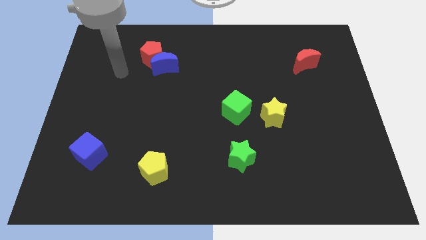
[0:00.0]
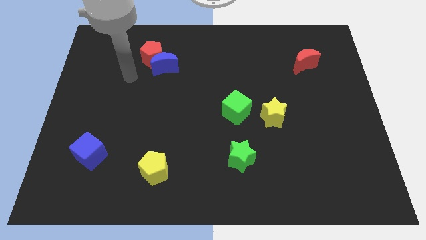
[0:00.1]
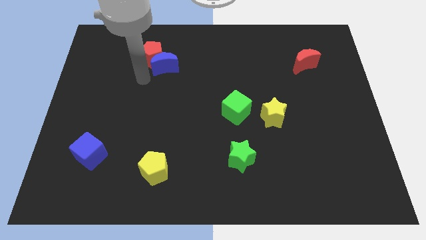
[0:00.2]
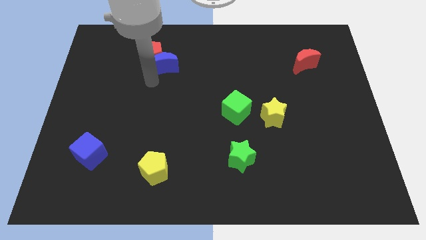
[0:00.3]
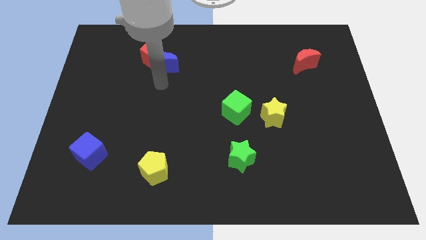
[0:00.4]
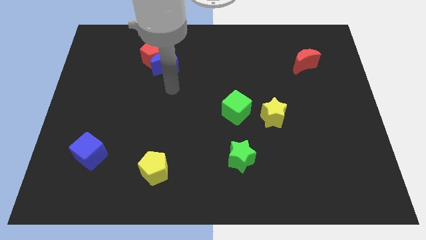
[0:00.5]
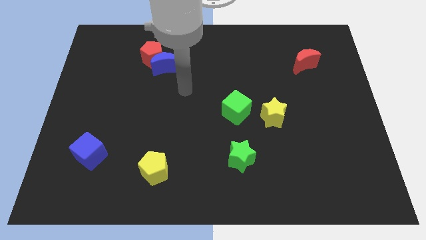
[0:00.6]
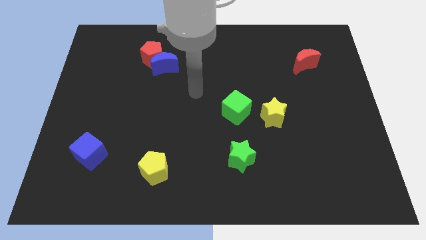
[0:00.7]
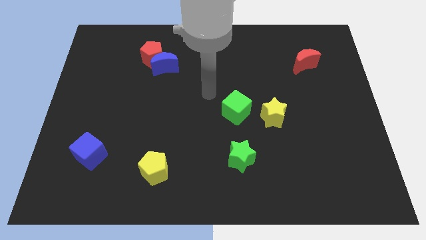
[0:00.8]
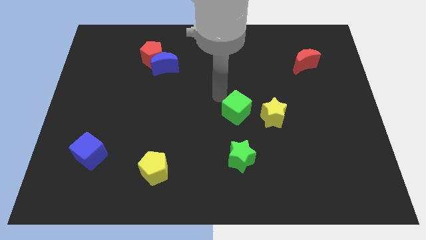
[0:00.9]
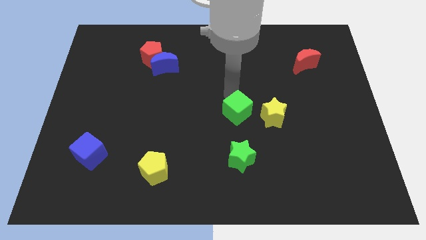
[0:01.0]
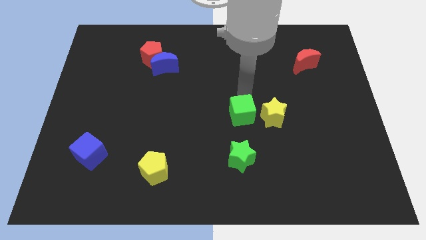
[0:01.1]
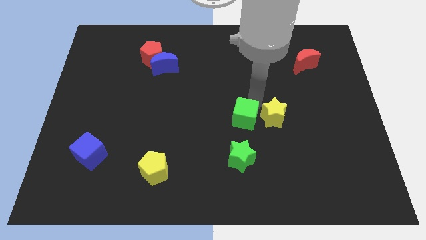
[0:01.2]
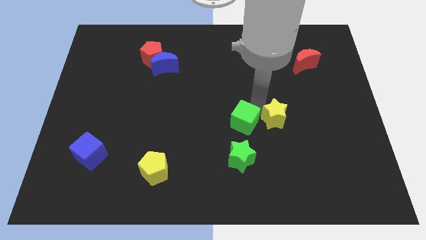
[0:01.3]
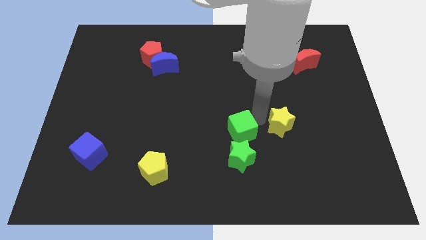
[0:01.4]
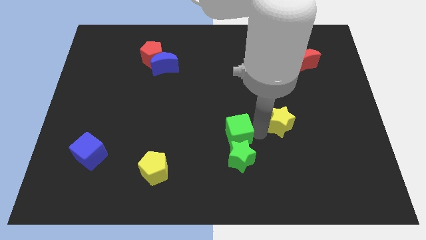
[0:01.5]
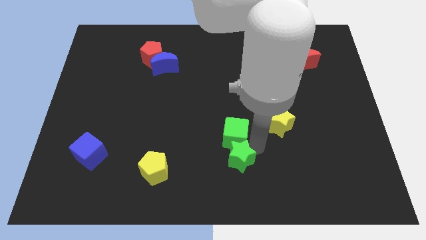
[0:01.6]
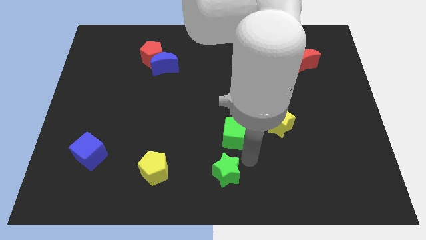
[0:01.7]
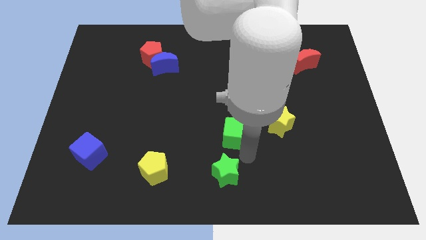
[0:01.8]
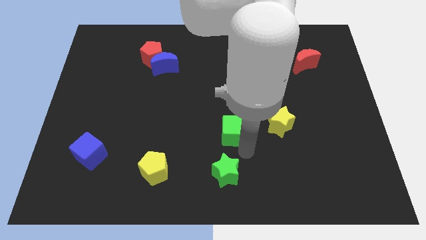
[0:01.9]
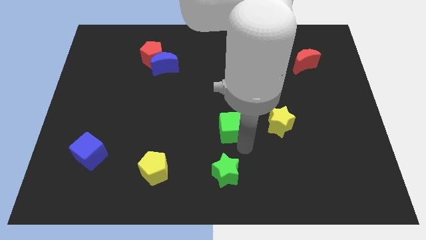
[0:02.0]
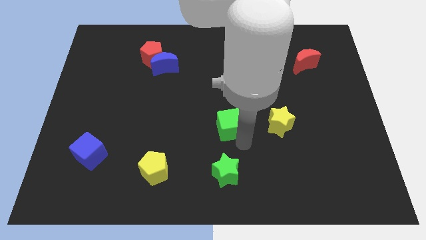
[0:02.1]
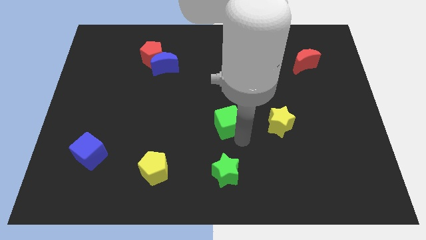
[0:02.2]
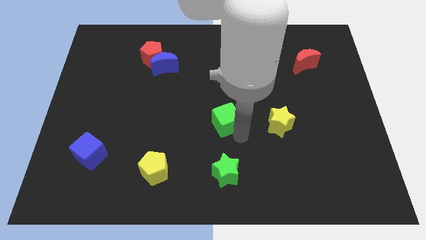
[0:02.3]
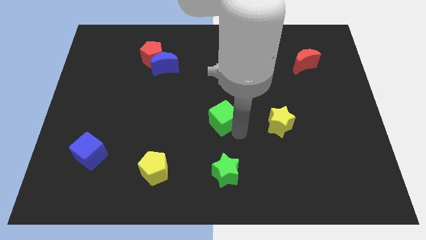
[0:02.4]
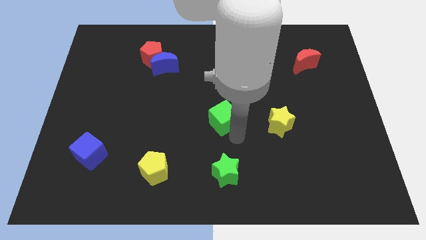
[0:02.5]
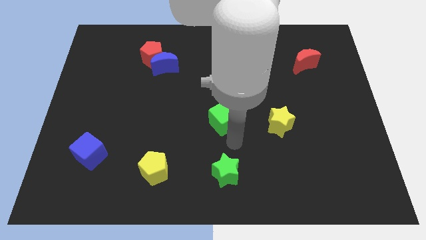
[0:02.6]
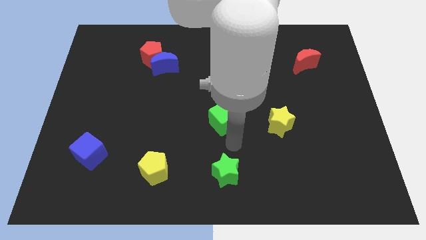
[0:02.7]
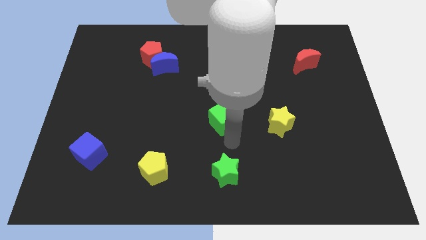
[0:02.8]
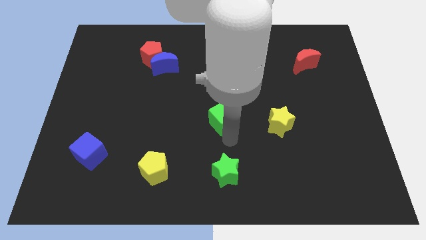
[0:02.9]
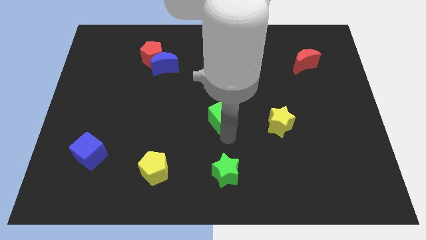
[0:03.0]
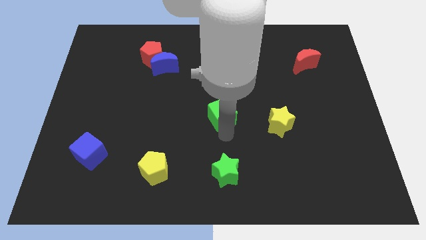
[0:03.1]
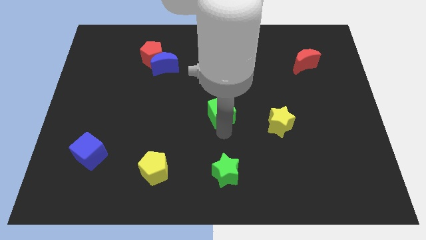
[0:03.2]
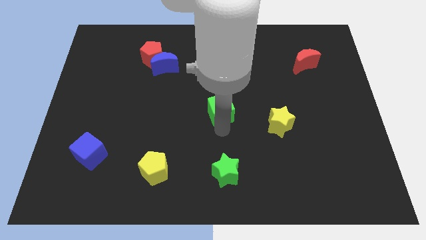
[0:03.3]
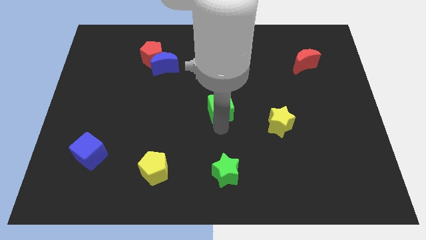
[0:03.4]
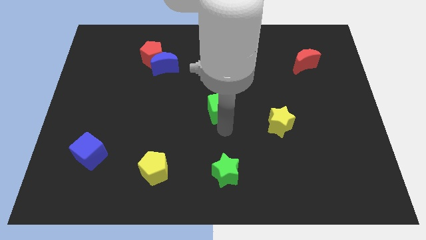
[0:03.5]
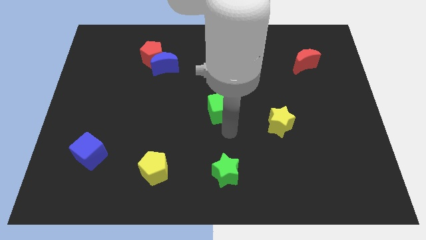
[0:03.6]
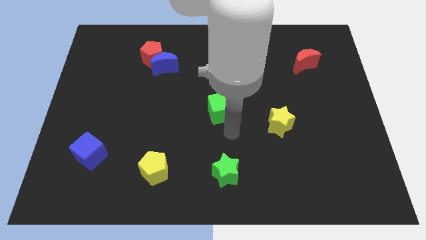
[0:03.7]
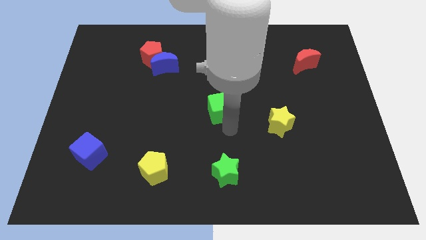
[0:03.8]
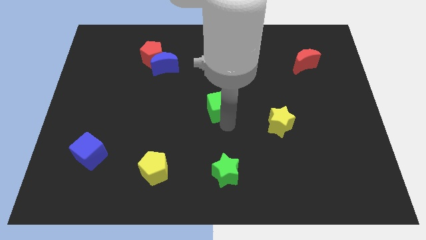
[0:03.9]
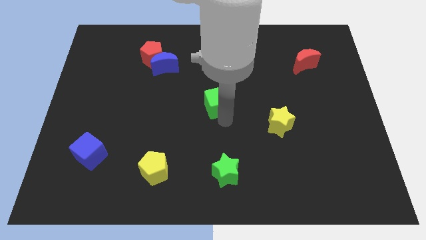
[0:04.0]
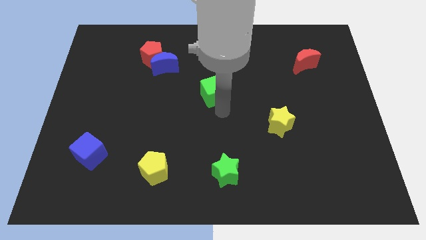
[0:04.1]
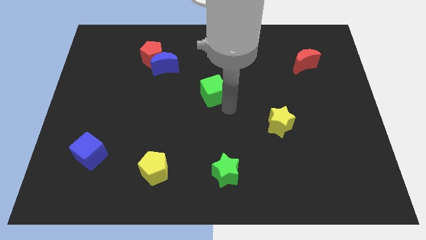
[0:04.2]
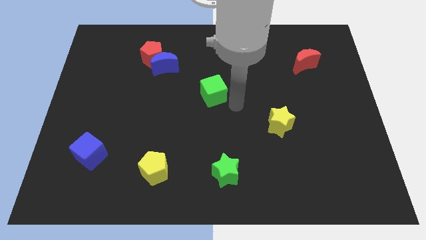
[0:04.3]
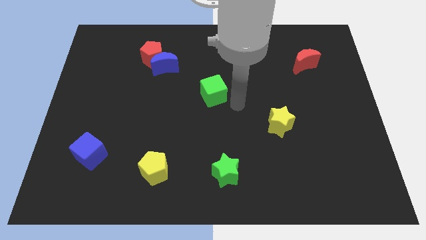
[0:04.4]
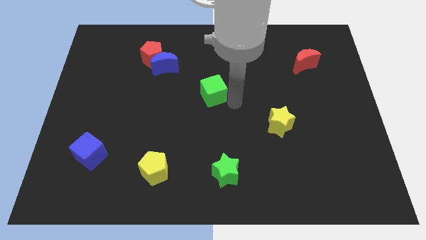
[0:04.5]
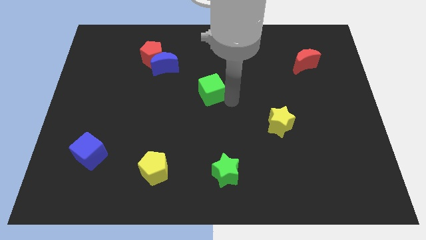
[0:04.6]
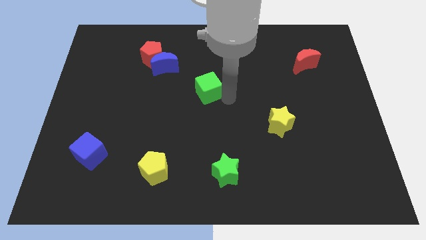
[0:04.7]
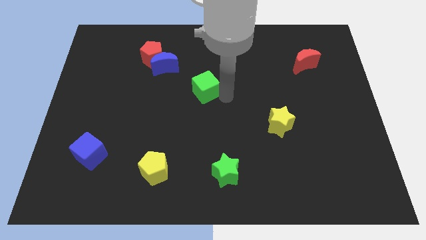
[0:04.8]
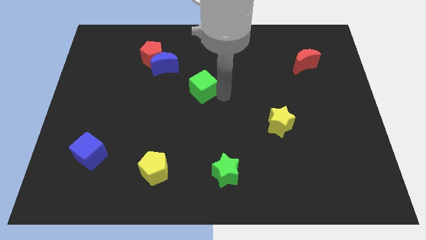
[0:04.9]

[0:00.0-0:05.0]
slide the green cube to the bottom right of the blue moon

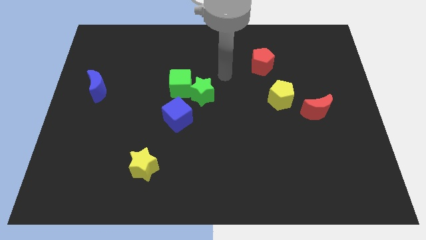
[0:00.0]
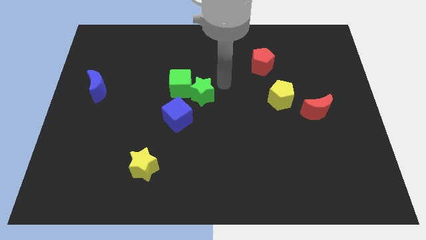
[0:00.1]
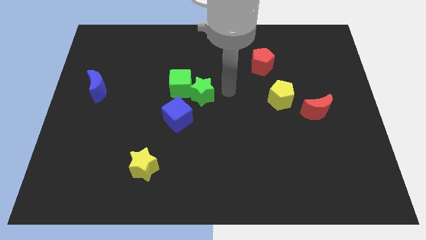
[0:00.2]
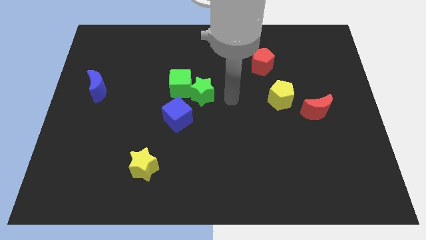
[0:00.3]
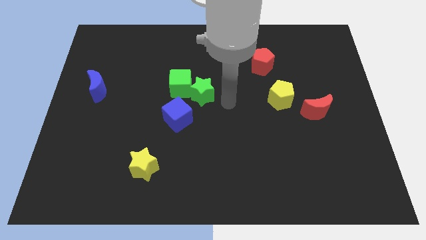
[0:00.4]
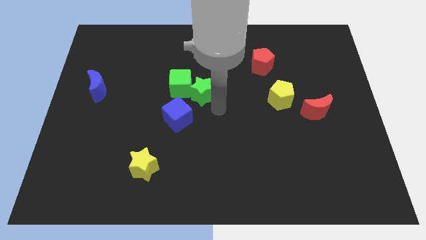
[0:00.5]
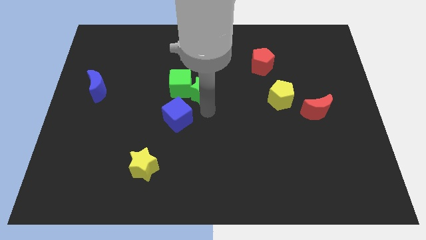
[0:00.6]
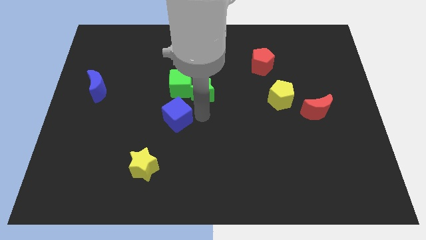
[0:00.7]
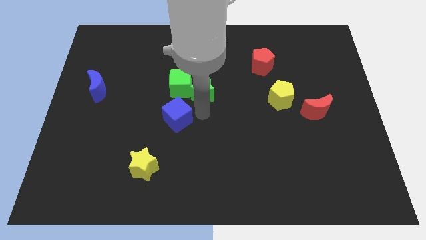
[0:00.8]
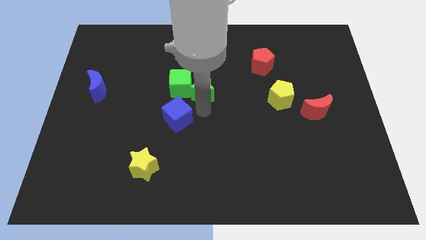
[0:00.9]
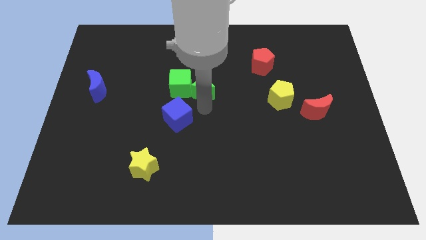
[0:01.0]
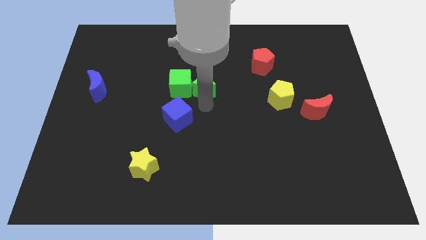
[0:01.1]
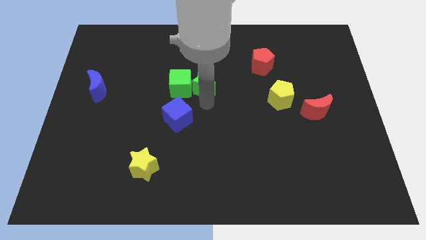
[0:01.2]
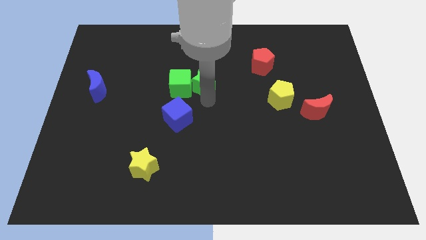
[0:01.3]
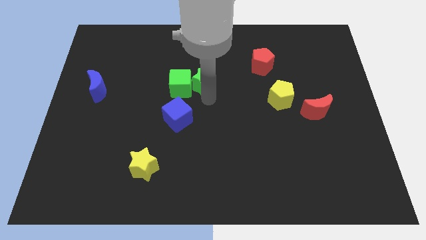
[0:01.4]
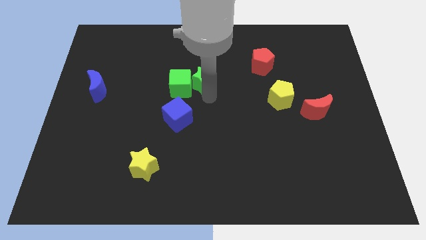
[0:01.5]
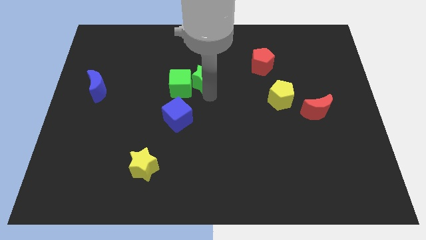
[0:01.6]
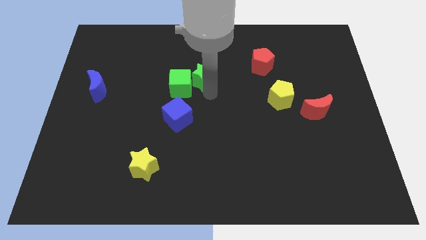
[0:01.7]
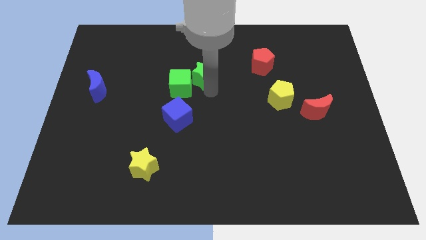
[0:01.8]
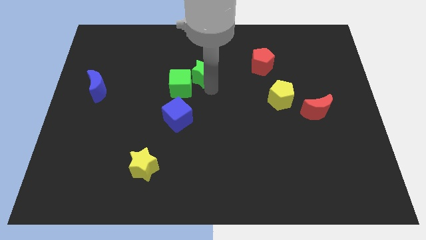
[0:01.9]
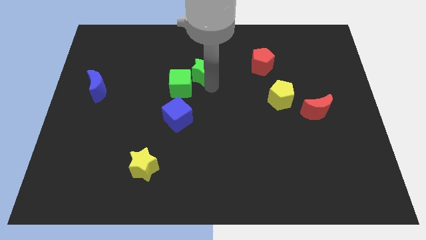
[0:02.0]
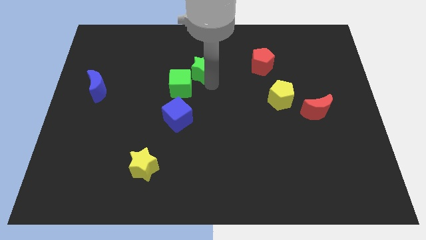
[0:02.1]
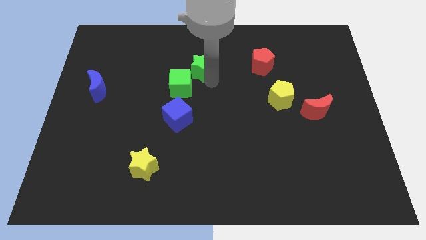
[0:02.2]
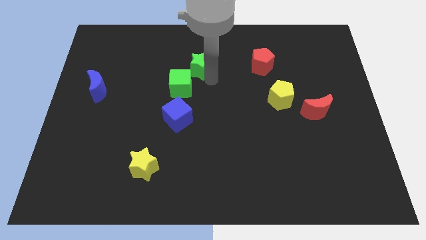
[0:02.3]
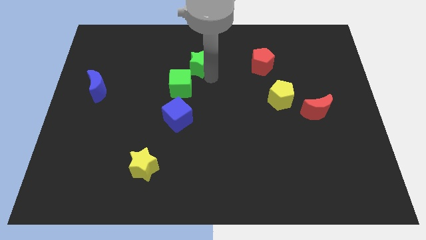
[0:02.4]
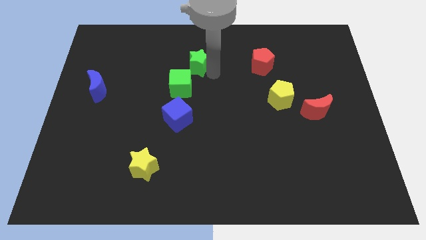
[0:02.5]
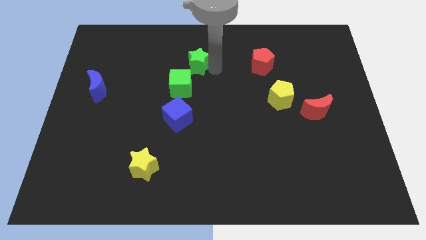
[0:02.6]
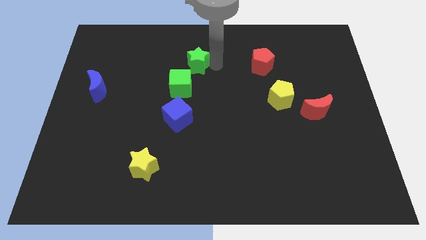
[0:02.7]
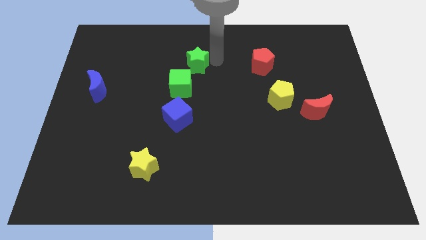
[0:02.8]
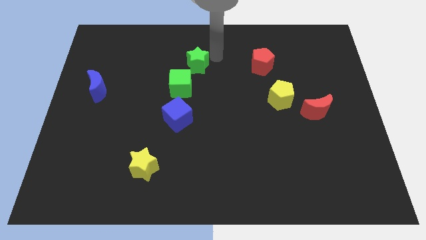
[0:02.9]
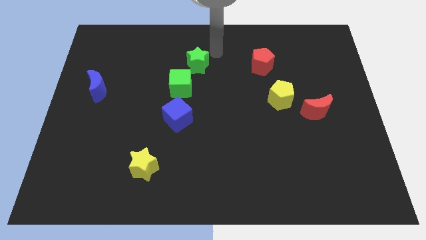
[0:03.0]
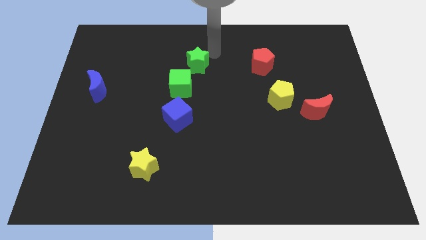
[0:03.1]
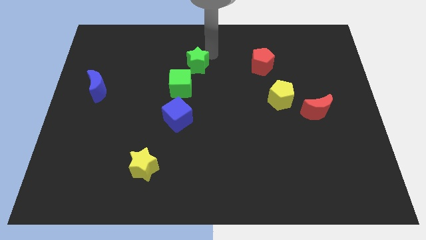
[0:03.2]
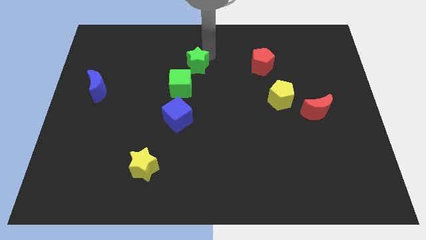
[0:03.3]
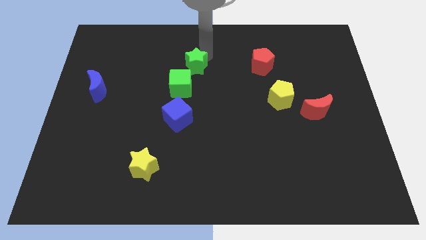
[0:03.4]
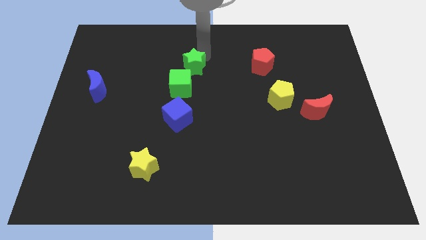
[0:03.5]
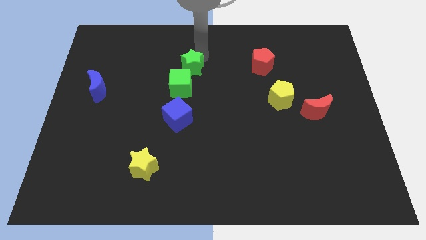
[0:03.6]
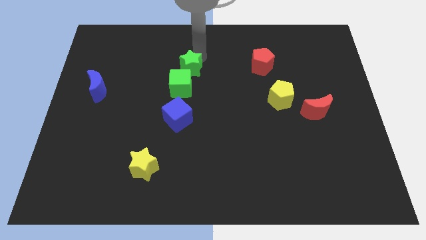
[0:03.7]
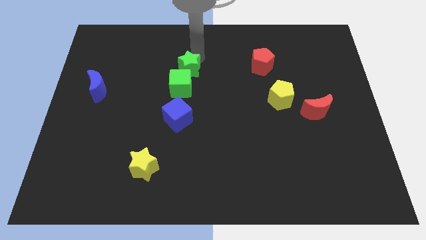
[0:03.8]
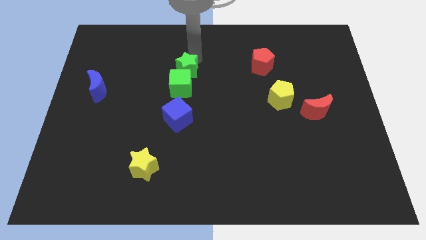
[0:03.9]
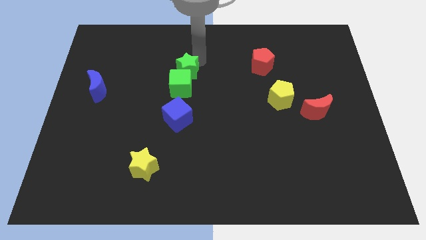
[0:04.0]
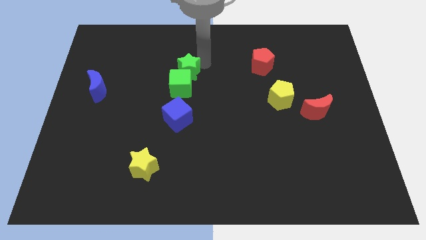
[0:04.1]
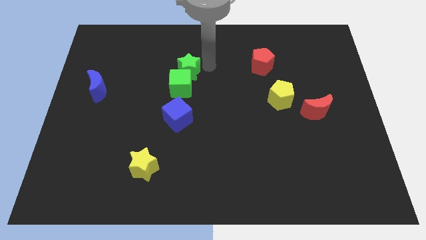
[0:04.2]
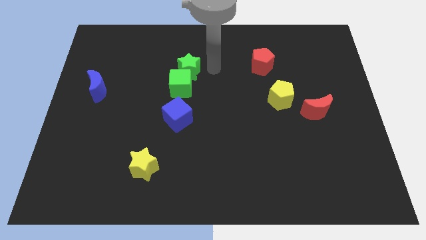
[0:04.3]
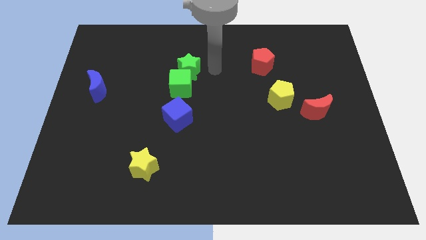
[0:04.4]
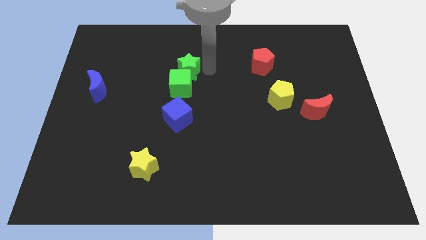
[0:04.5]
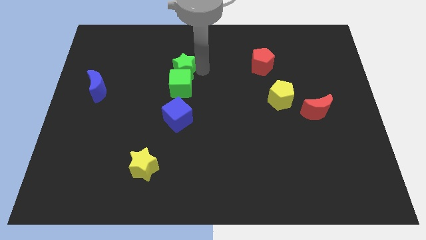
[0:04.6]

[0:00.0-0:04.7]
put the green star to the top left side of the green cube
